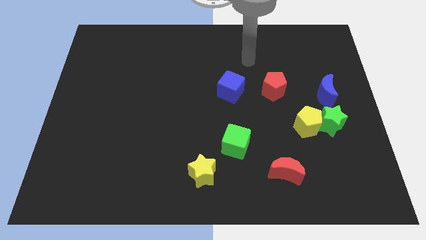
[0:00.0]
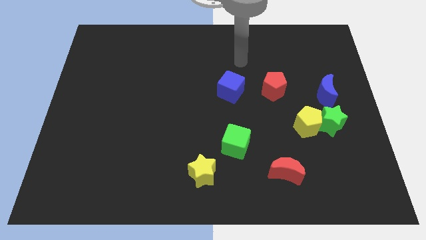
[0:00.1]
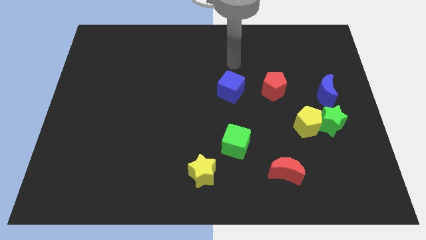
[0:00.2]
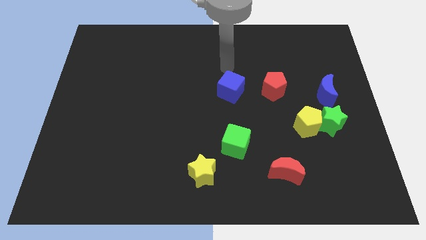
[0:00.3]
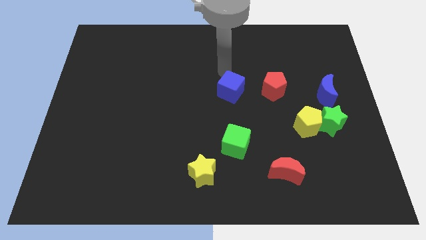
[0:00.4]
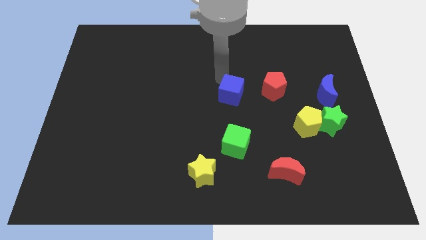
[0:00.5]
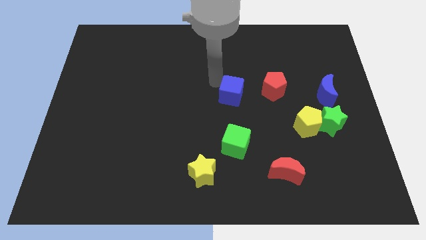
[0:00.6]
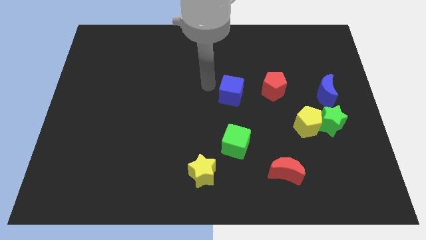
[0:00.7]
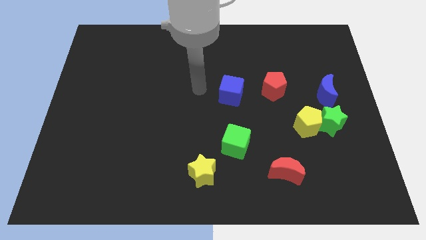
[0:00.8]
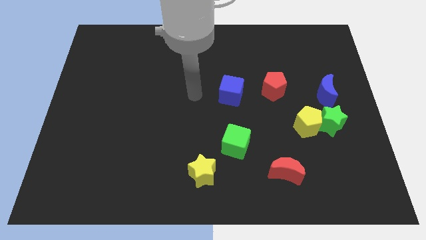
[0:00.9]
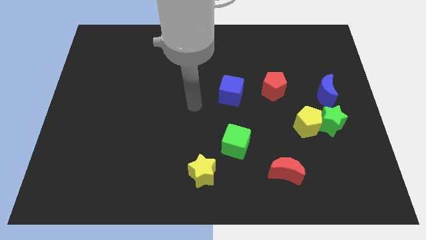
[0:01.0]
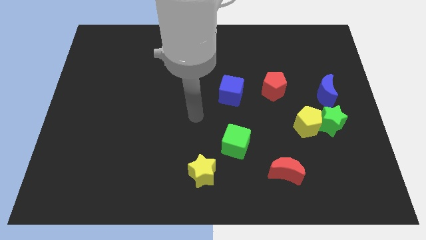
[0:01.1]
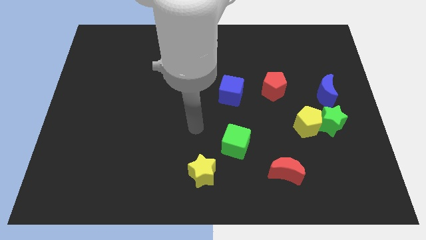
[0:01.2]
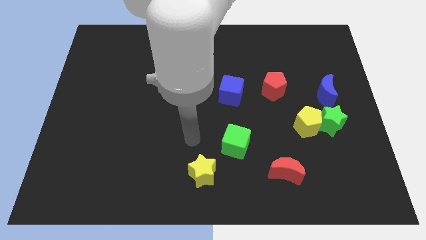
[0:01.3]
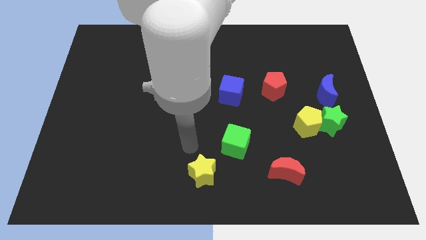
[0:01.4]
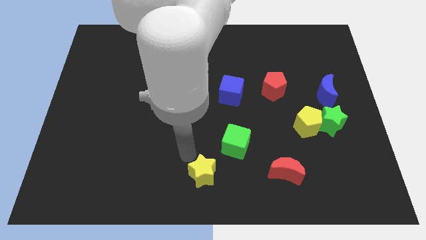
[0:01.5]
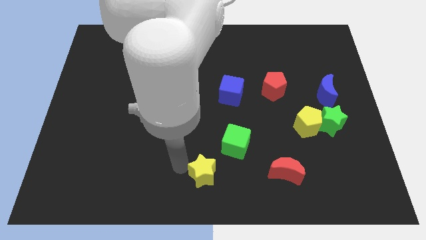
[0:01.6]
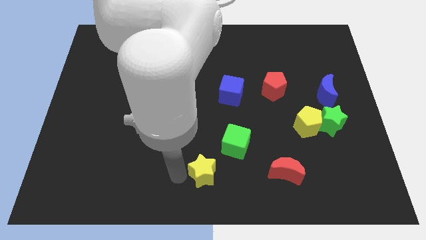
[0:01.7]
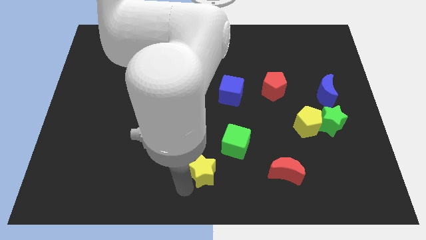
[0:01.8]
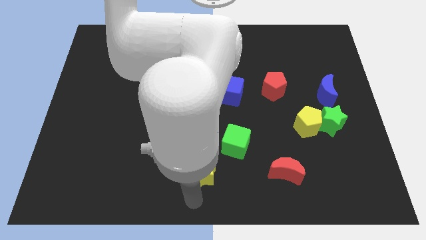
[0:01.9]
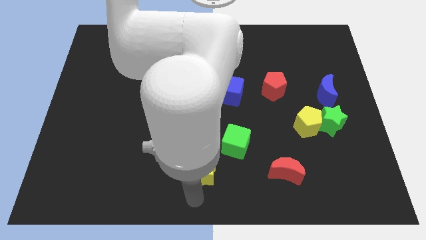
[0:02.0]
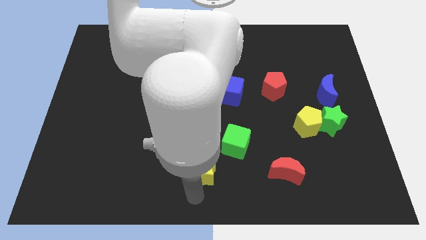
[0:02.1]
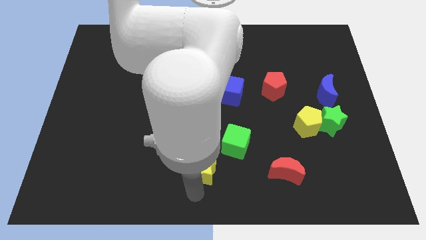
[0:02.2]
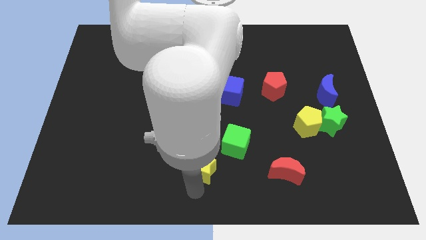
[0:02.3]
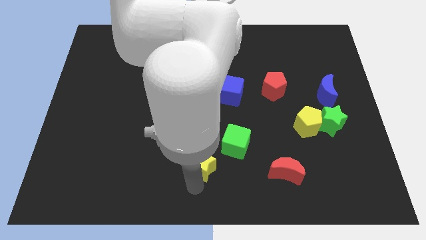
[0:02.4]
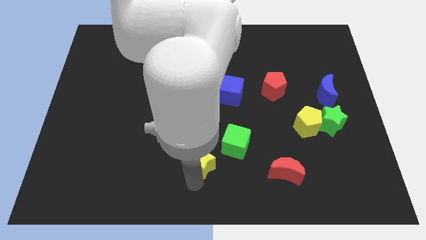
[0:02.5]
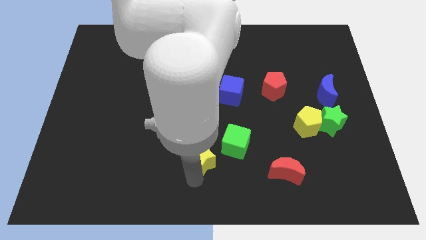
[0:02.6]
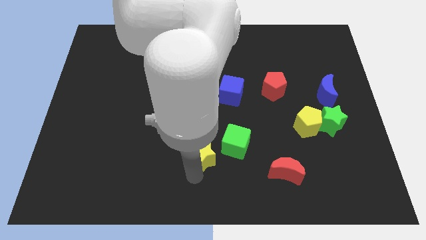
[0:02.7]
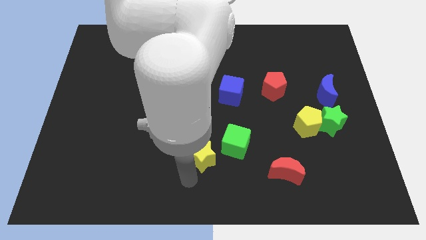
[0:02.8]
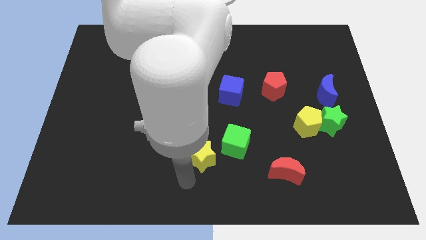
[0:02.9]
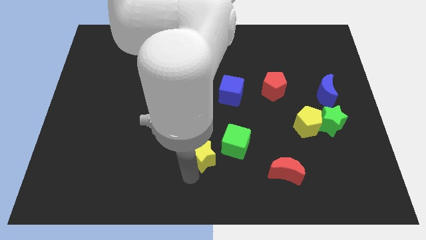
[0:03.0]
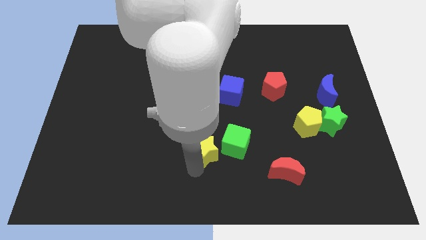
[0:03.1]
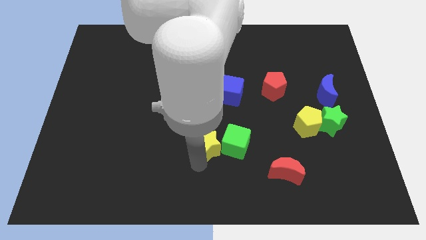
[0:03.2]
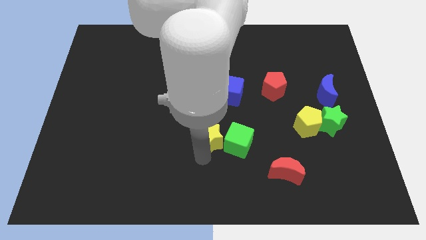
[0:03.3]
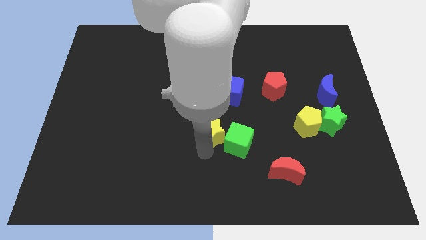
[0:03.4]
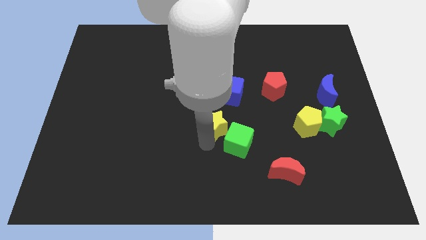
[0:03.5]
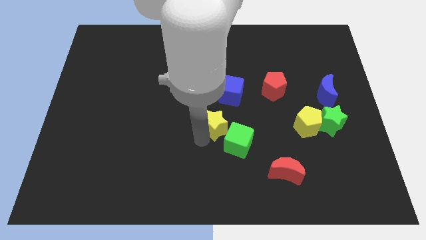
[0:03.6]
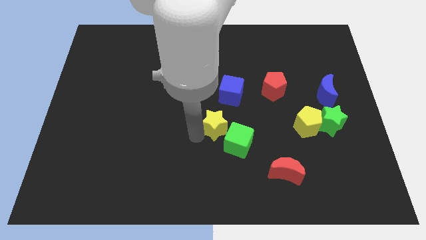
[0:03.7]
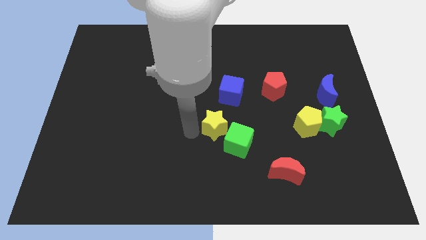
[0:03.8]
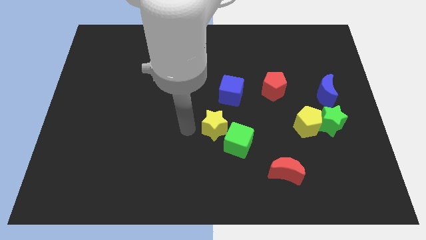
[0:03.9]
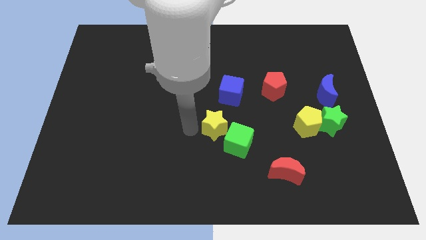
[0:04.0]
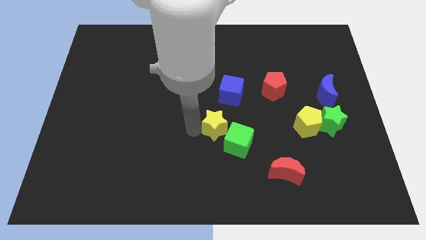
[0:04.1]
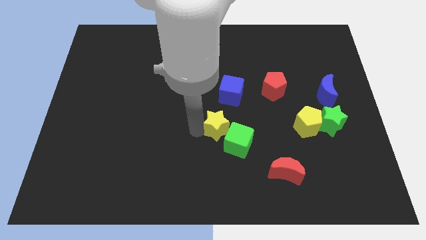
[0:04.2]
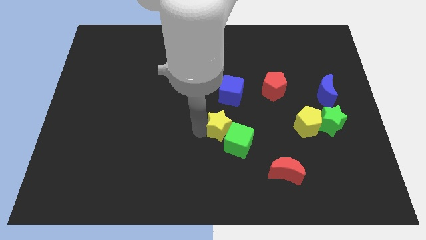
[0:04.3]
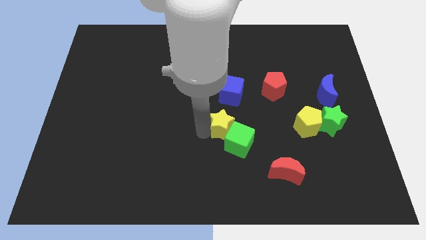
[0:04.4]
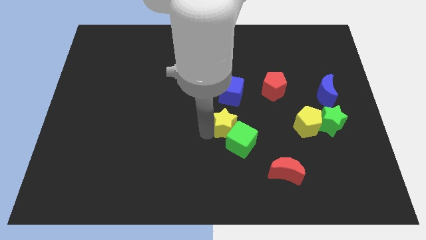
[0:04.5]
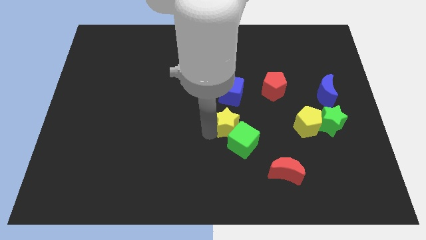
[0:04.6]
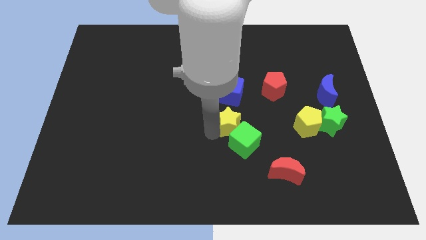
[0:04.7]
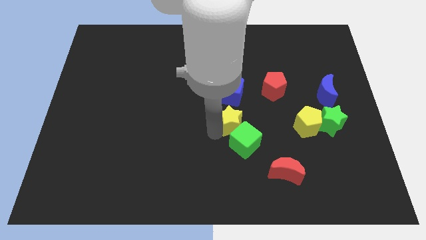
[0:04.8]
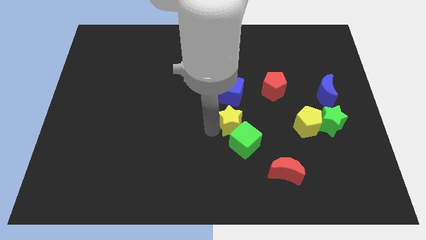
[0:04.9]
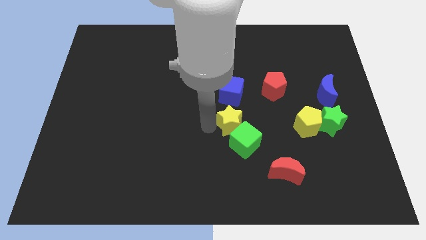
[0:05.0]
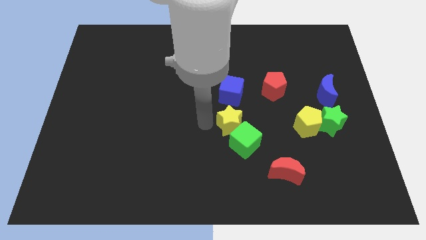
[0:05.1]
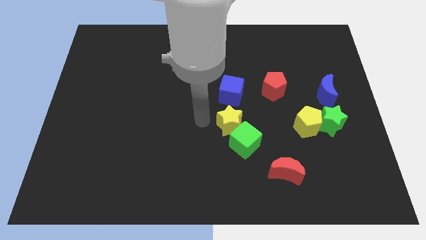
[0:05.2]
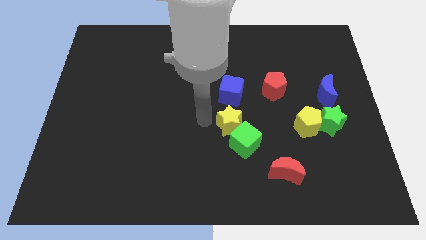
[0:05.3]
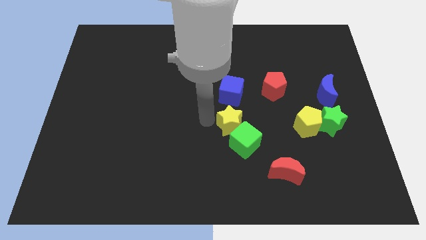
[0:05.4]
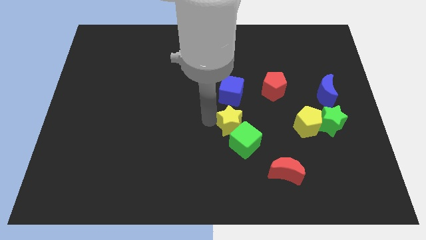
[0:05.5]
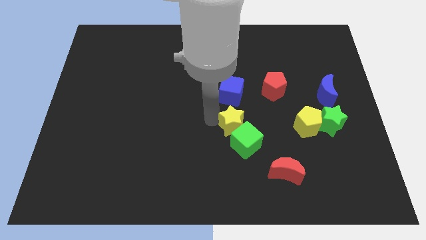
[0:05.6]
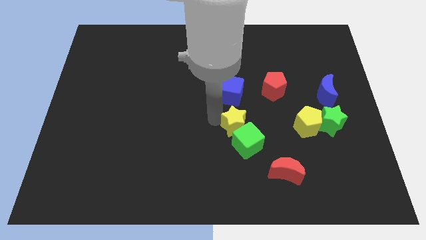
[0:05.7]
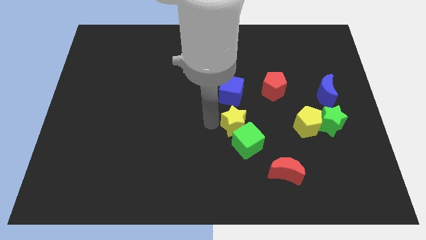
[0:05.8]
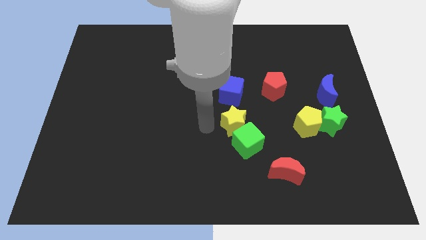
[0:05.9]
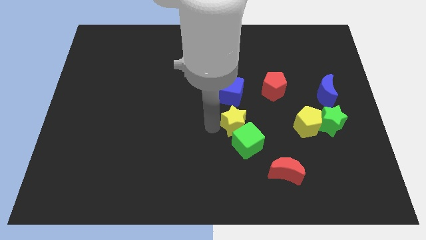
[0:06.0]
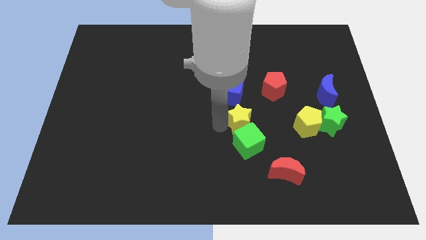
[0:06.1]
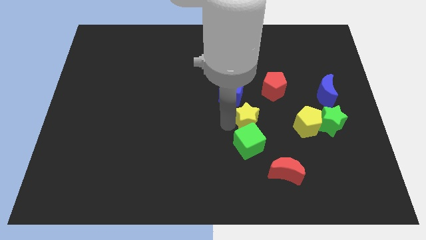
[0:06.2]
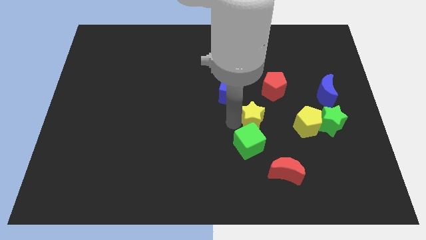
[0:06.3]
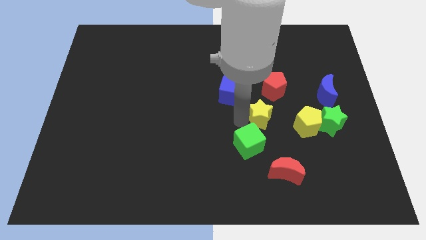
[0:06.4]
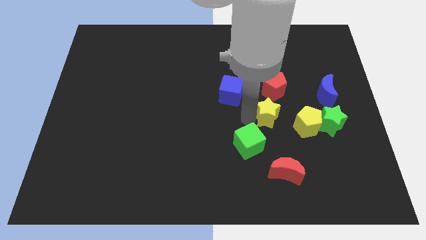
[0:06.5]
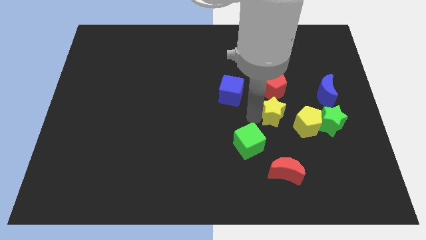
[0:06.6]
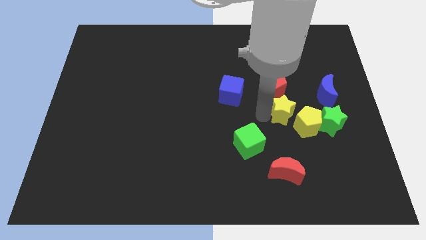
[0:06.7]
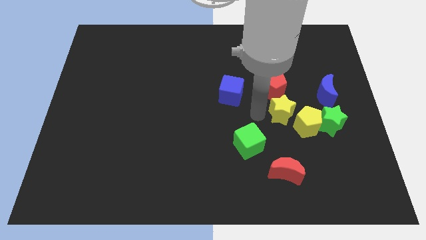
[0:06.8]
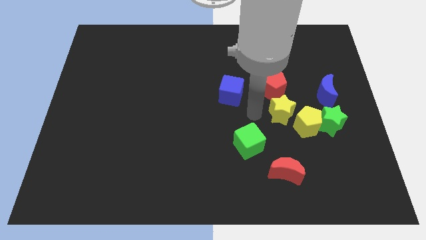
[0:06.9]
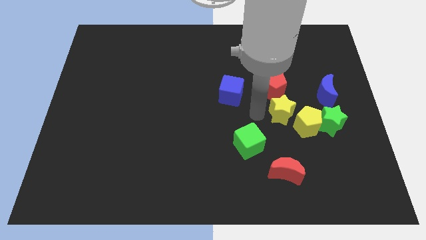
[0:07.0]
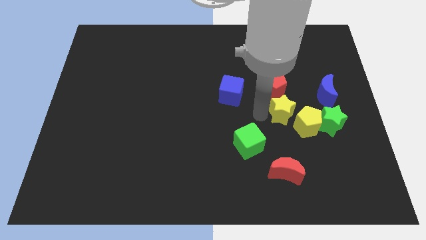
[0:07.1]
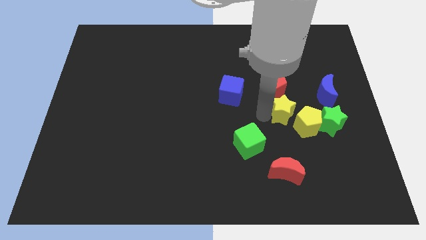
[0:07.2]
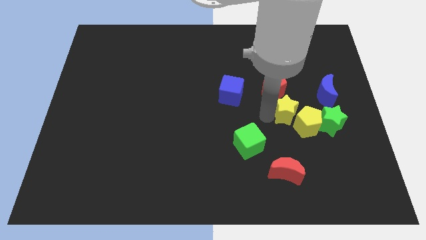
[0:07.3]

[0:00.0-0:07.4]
move the yellow star to the bottom left of the blue moon

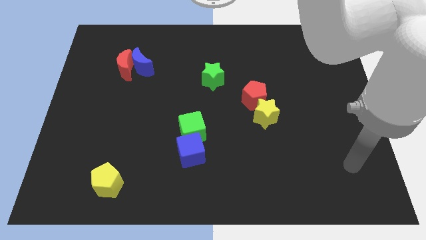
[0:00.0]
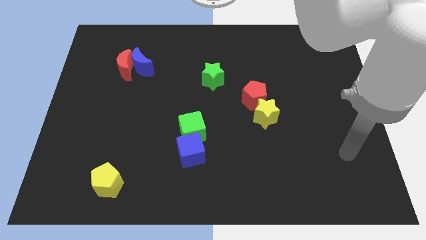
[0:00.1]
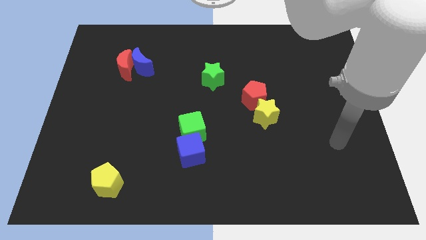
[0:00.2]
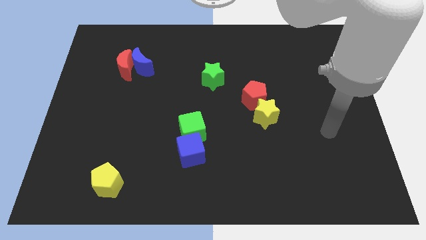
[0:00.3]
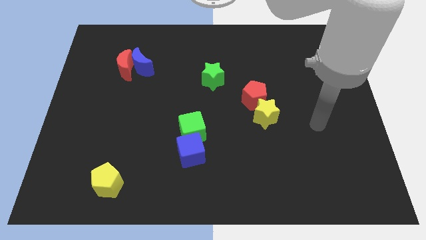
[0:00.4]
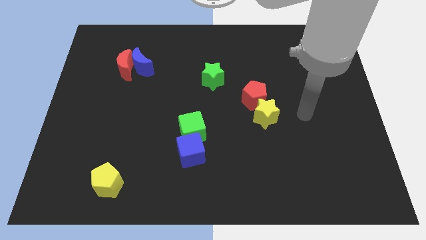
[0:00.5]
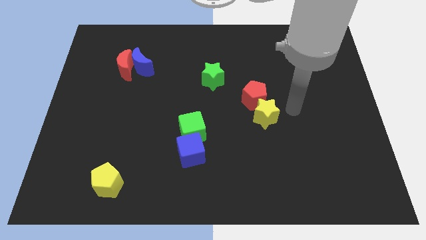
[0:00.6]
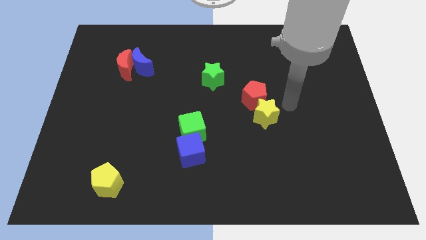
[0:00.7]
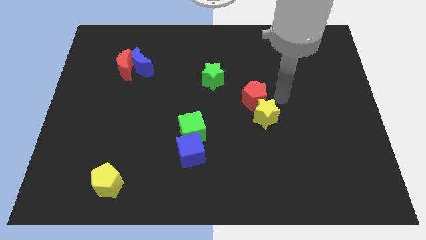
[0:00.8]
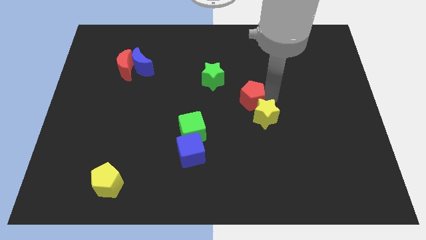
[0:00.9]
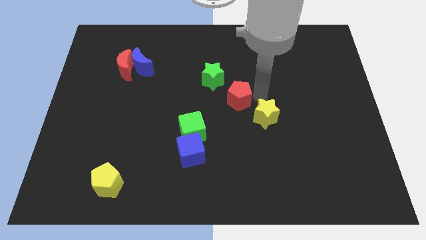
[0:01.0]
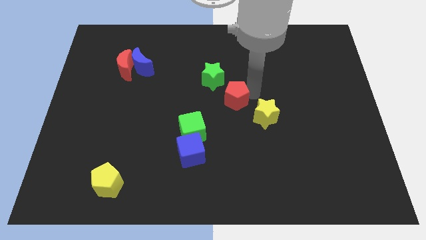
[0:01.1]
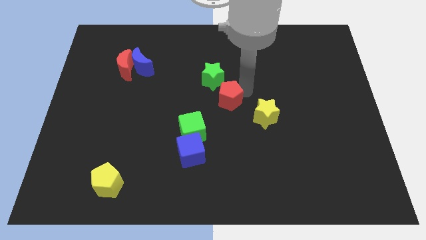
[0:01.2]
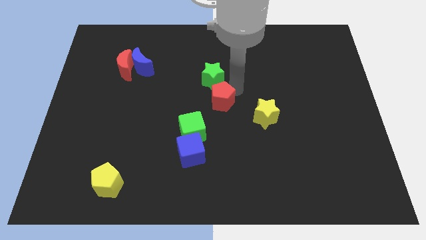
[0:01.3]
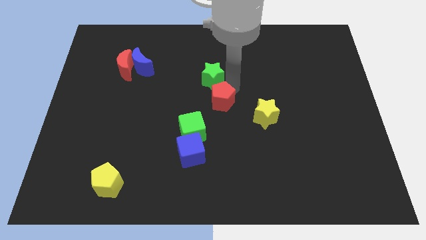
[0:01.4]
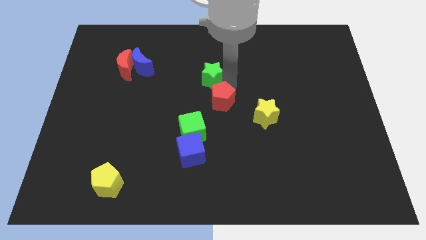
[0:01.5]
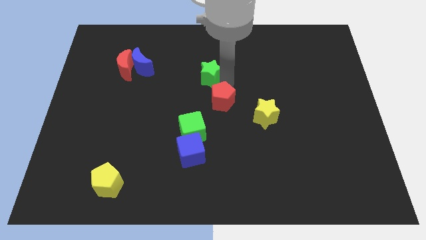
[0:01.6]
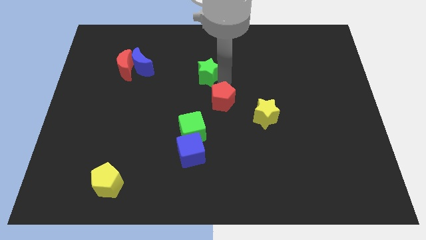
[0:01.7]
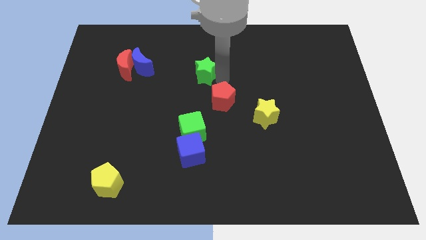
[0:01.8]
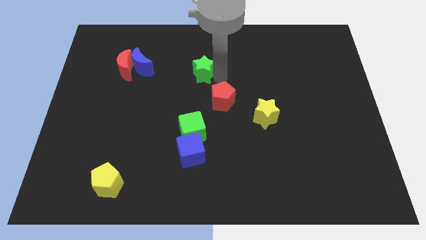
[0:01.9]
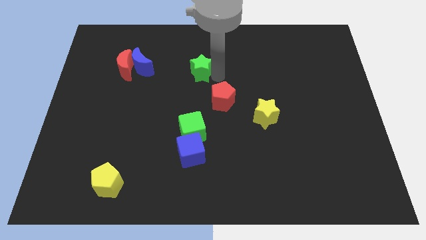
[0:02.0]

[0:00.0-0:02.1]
slide the green star to the right of the blue moon
